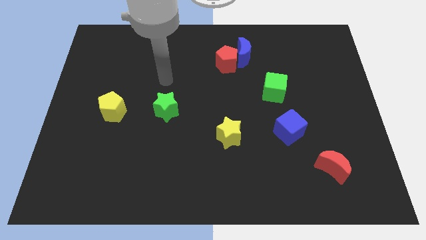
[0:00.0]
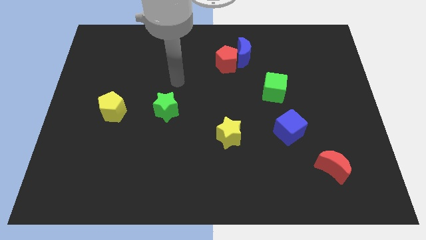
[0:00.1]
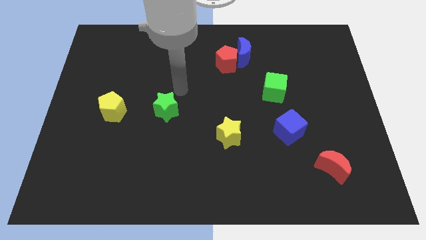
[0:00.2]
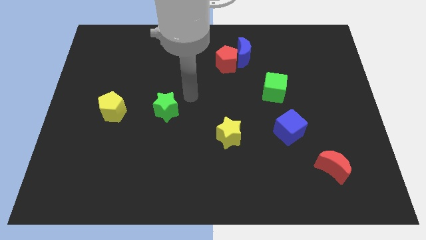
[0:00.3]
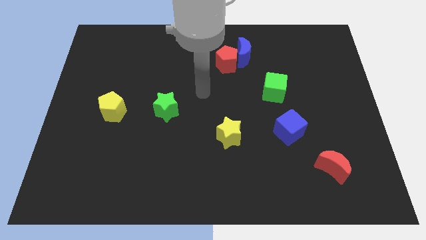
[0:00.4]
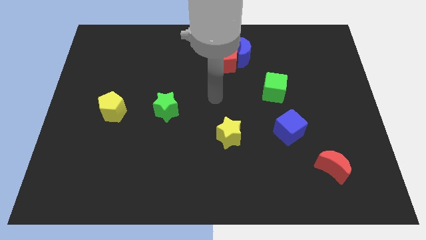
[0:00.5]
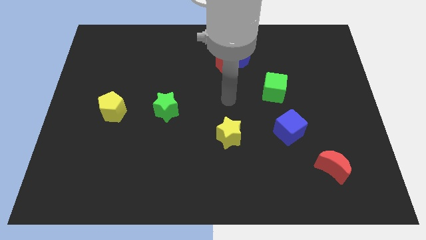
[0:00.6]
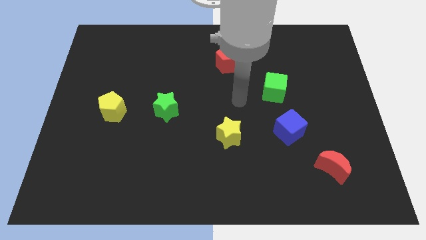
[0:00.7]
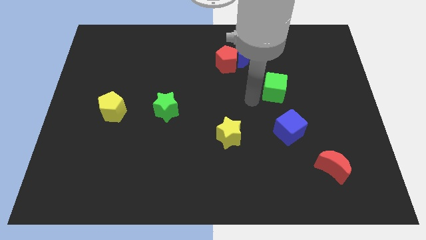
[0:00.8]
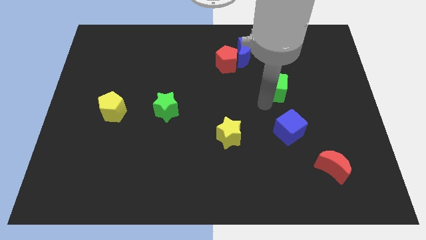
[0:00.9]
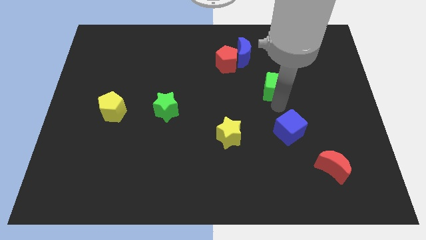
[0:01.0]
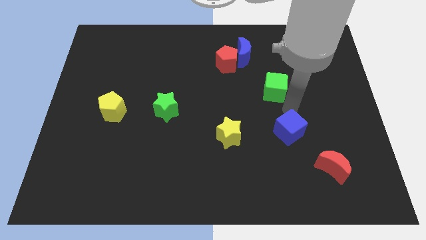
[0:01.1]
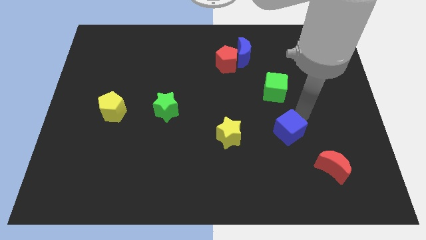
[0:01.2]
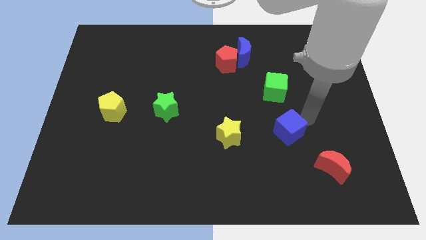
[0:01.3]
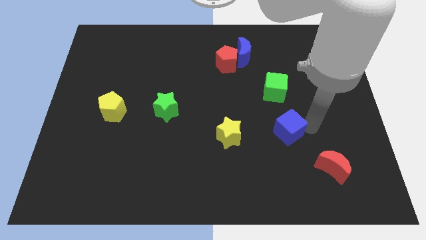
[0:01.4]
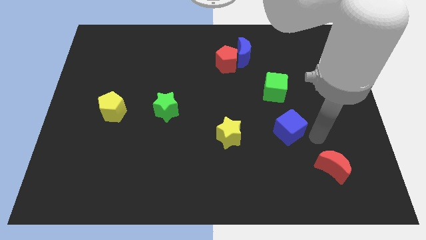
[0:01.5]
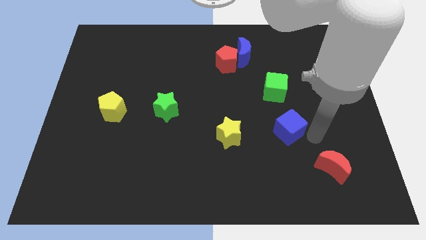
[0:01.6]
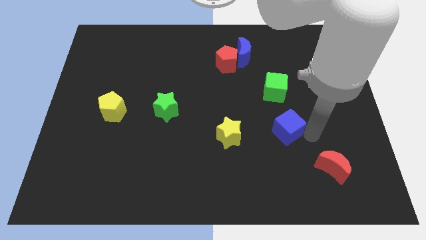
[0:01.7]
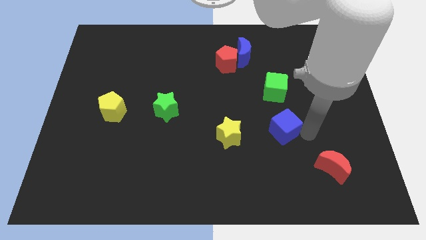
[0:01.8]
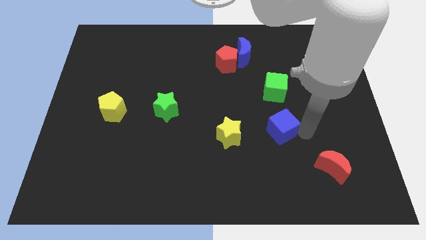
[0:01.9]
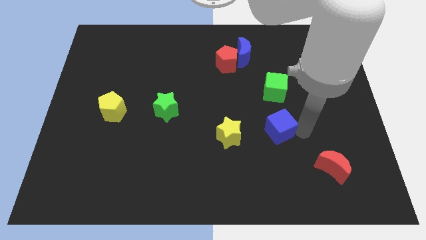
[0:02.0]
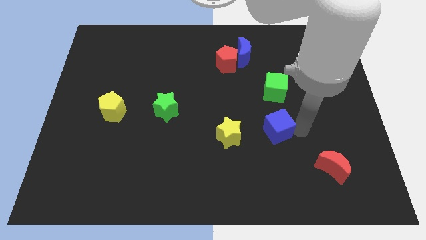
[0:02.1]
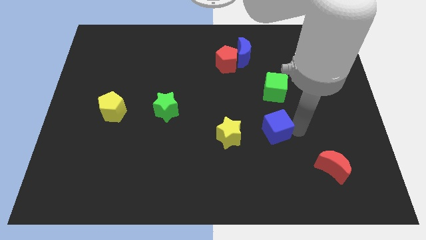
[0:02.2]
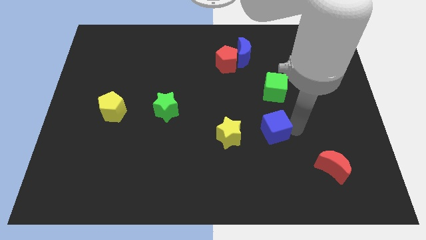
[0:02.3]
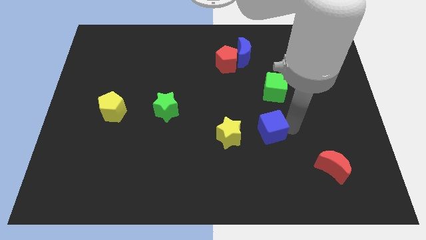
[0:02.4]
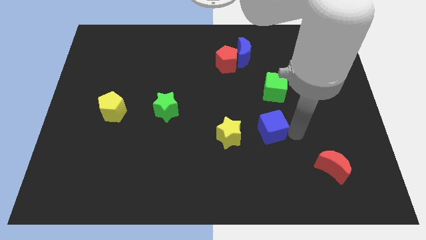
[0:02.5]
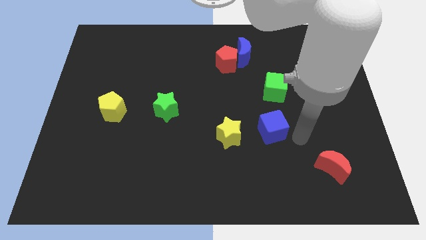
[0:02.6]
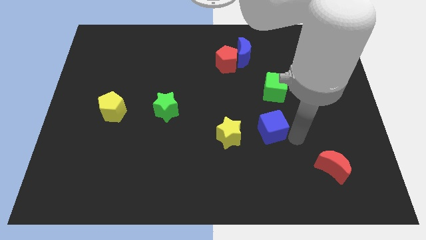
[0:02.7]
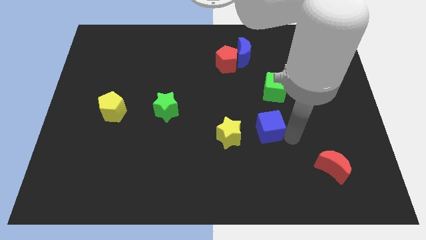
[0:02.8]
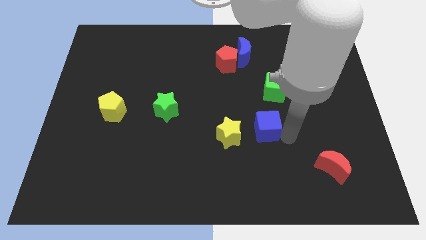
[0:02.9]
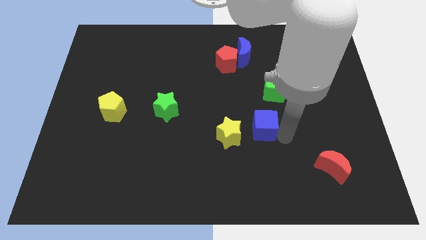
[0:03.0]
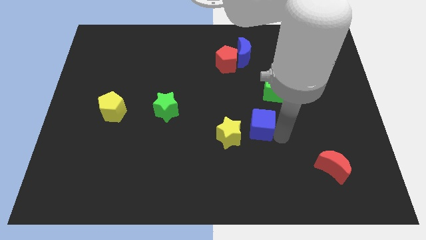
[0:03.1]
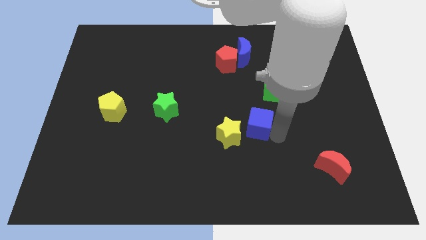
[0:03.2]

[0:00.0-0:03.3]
push the blue cube to the left a little bit

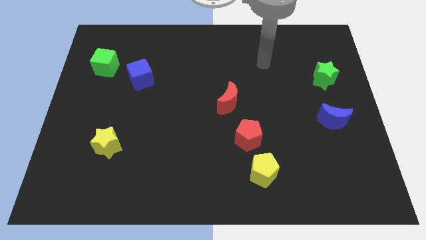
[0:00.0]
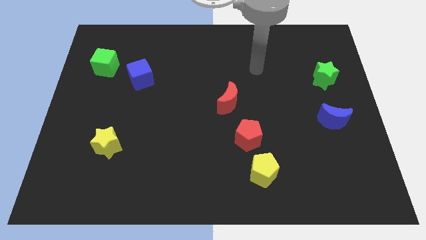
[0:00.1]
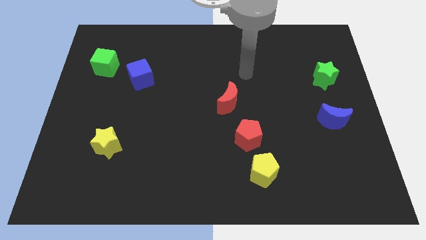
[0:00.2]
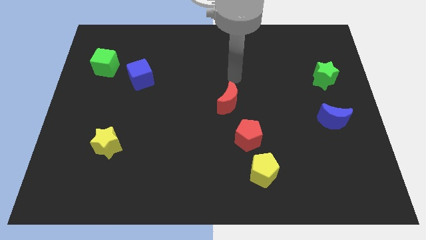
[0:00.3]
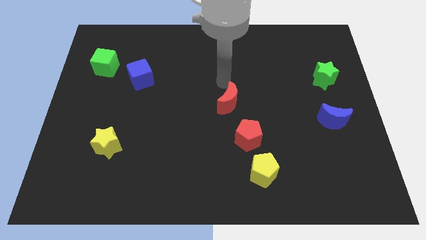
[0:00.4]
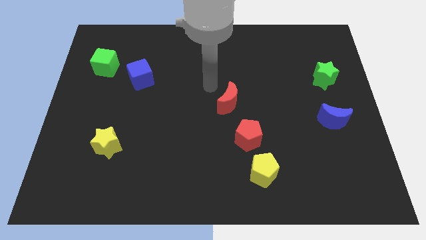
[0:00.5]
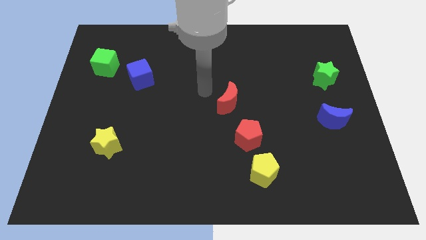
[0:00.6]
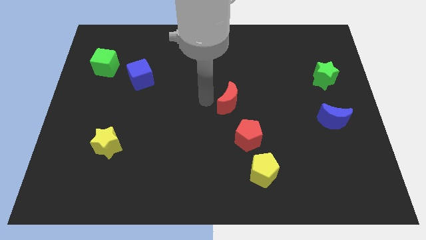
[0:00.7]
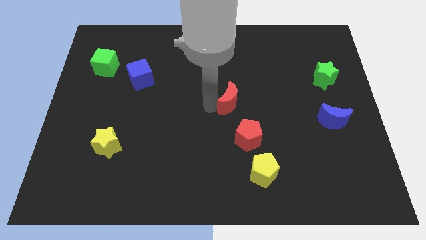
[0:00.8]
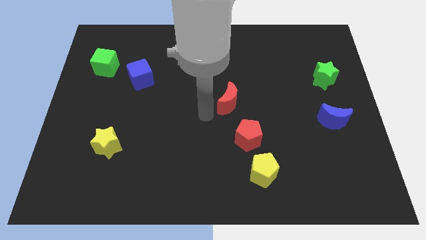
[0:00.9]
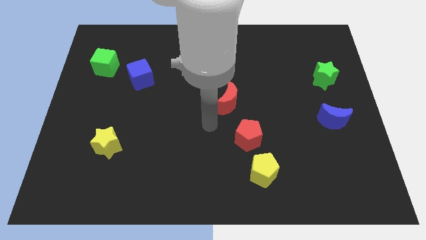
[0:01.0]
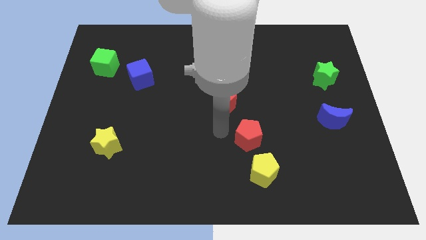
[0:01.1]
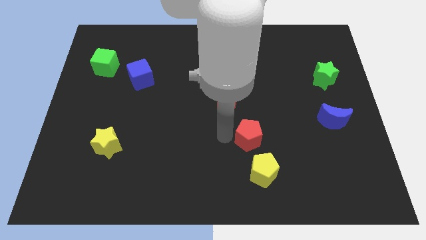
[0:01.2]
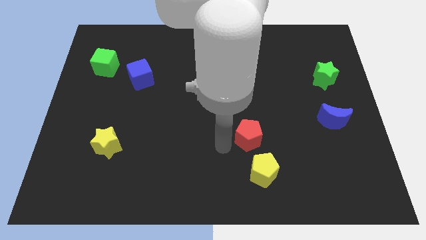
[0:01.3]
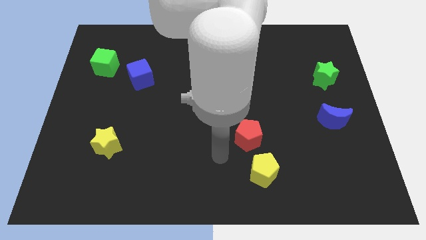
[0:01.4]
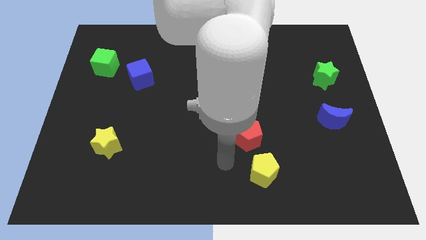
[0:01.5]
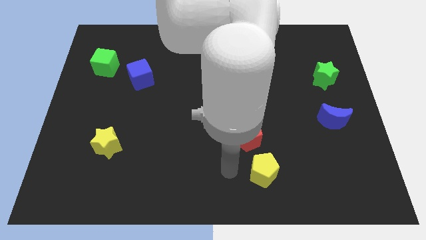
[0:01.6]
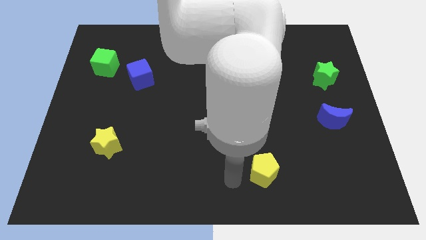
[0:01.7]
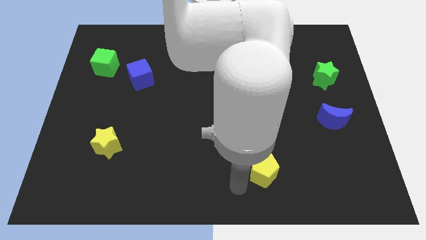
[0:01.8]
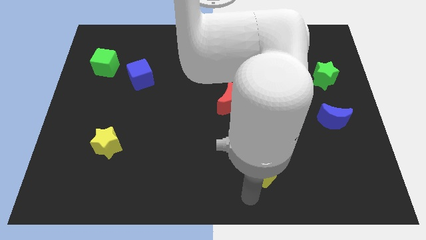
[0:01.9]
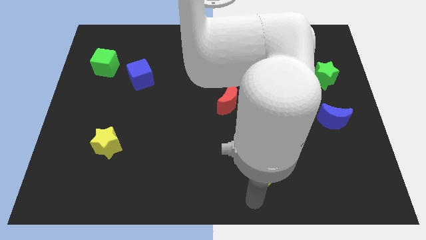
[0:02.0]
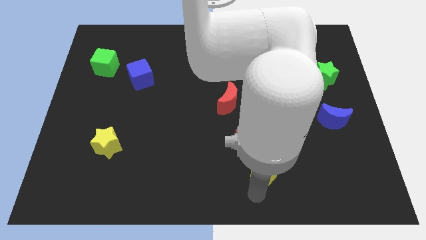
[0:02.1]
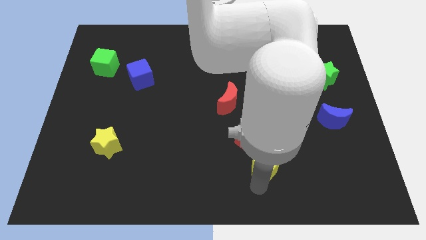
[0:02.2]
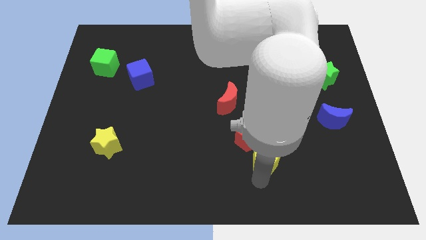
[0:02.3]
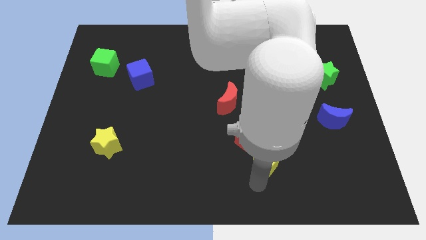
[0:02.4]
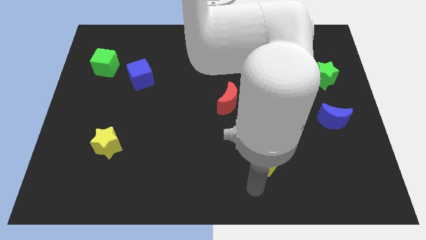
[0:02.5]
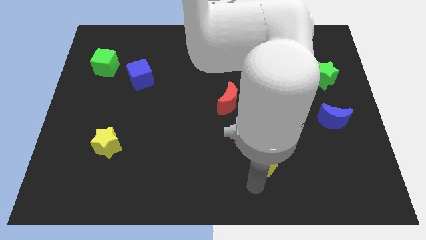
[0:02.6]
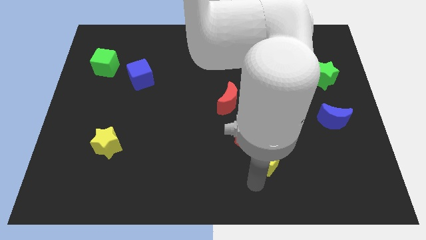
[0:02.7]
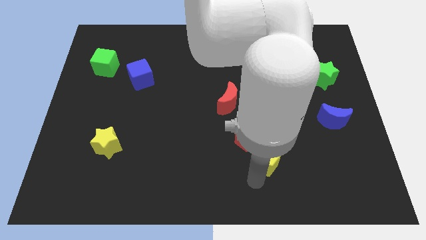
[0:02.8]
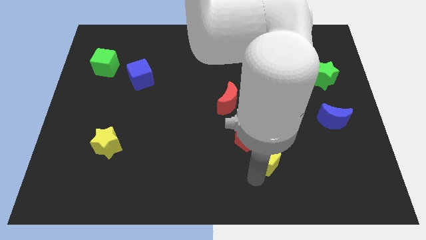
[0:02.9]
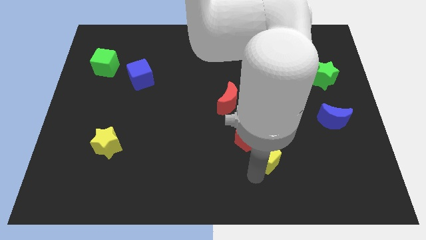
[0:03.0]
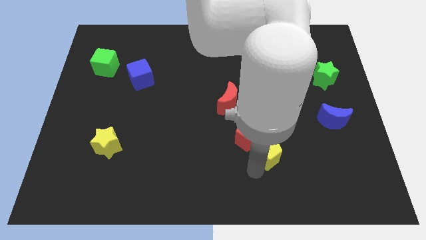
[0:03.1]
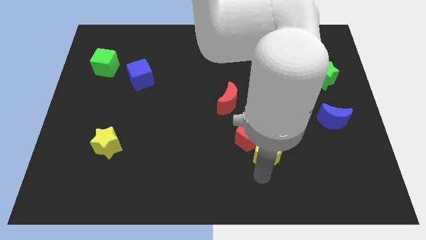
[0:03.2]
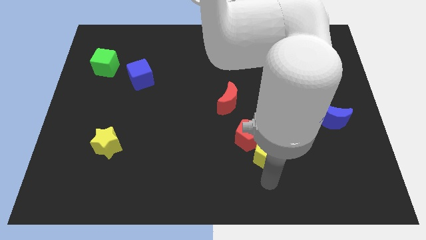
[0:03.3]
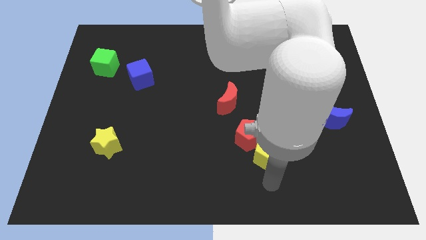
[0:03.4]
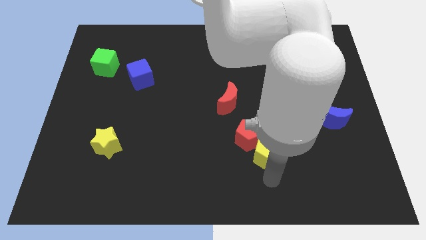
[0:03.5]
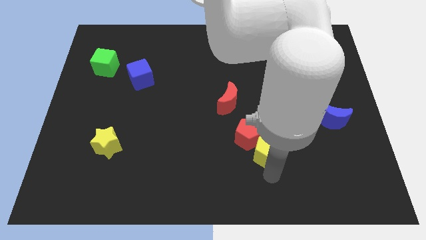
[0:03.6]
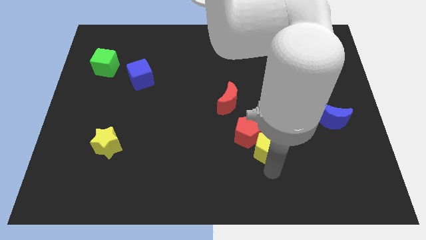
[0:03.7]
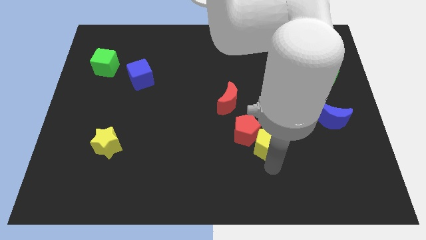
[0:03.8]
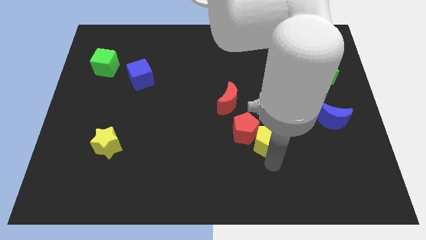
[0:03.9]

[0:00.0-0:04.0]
move the yellow pentagon upwards somewhat
